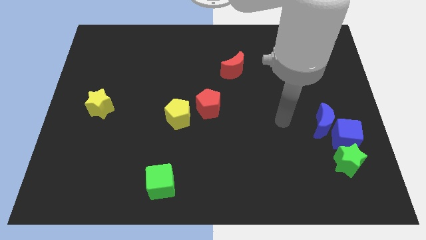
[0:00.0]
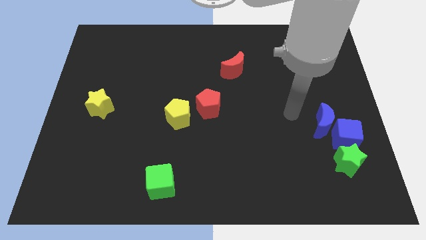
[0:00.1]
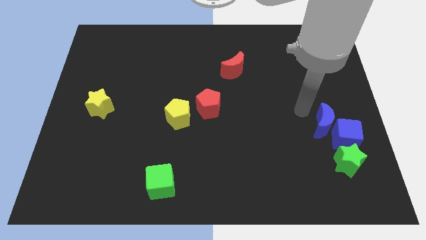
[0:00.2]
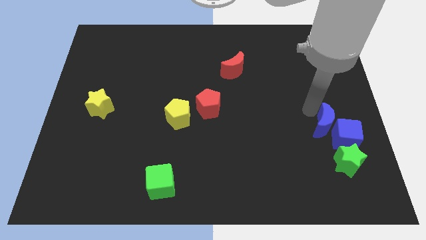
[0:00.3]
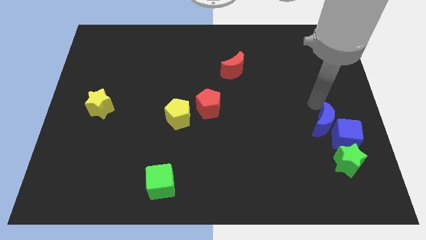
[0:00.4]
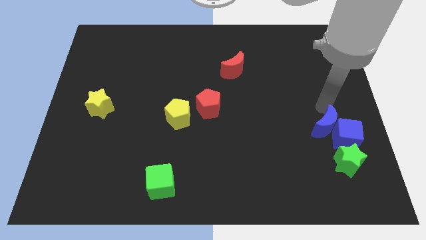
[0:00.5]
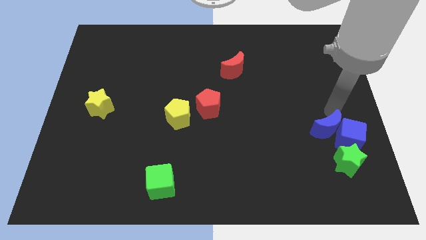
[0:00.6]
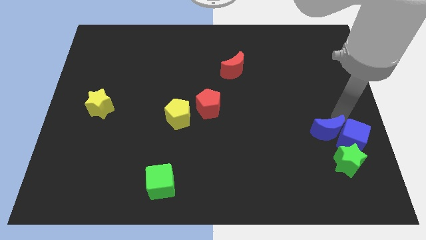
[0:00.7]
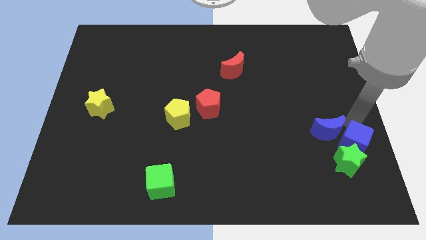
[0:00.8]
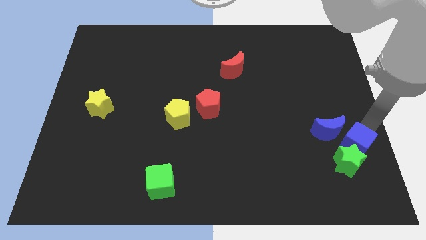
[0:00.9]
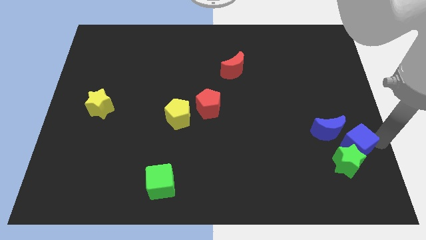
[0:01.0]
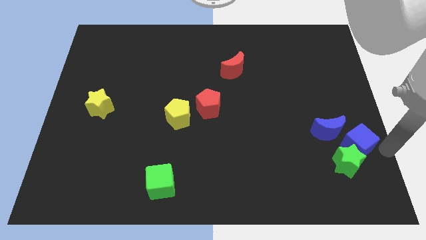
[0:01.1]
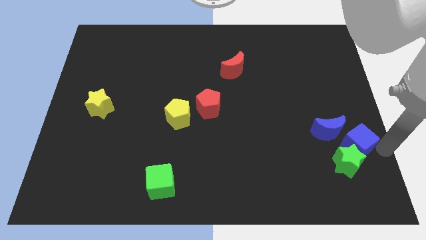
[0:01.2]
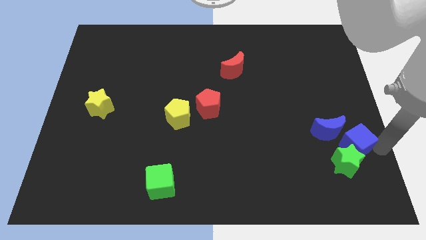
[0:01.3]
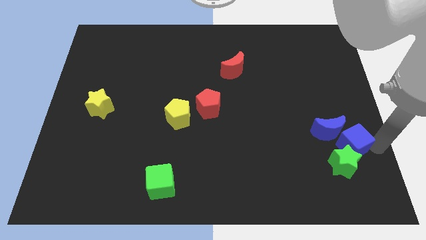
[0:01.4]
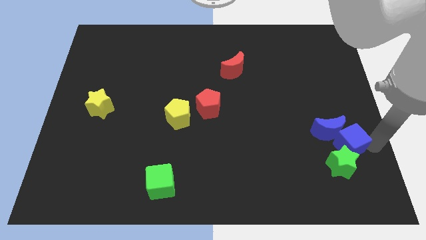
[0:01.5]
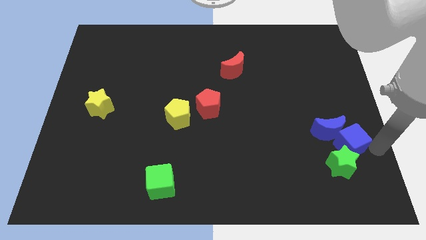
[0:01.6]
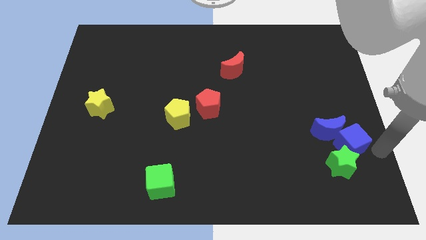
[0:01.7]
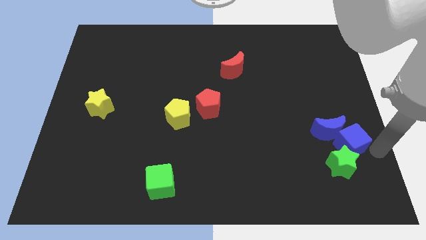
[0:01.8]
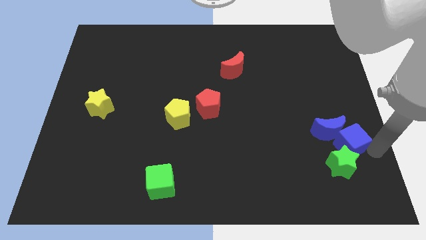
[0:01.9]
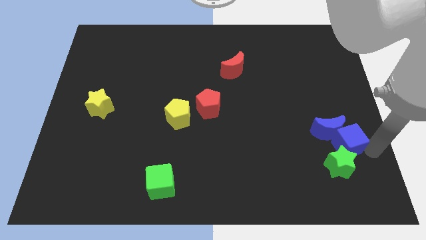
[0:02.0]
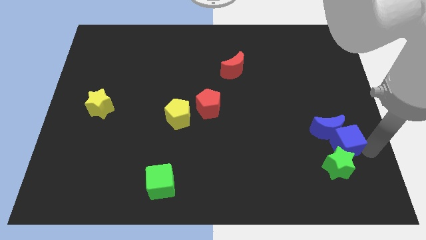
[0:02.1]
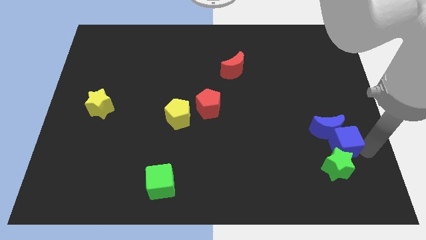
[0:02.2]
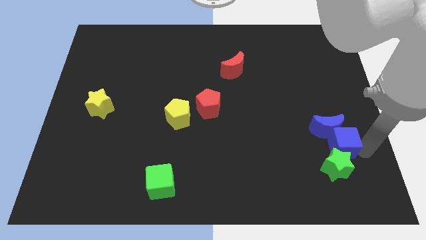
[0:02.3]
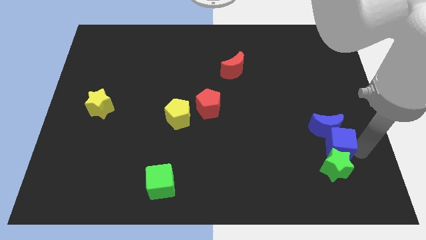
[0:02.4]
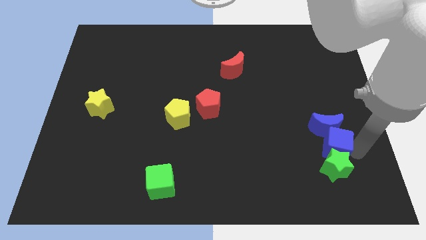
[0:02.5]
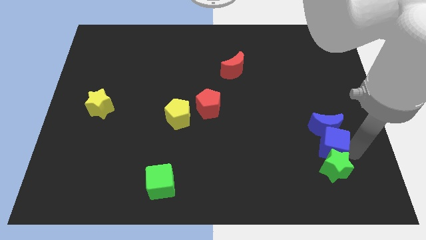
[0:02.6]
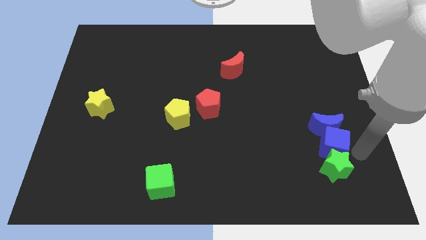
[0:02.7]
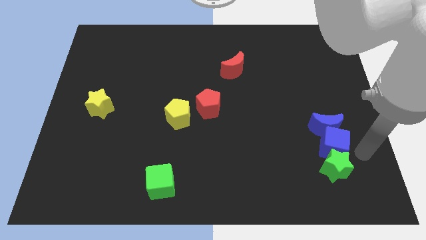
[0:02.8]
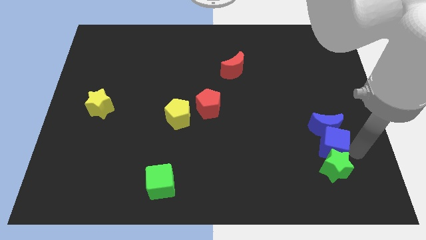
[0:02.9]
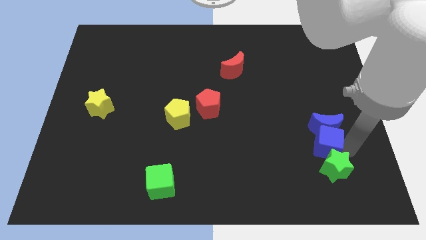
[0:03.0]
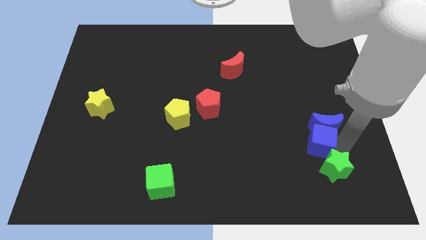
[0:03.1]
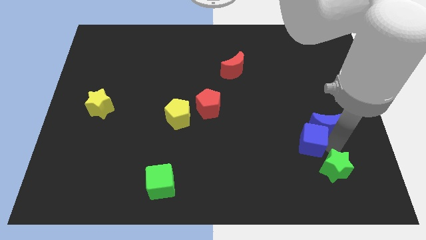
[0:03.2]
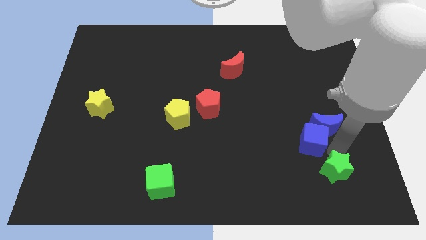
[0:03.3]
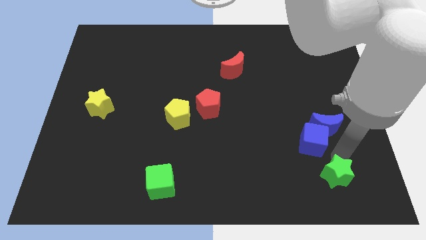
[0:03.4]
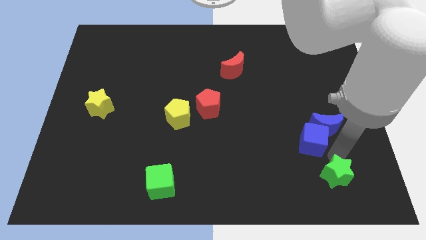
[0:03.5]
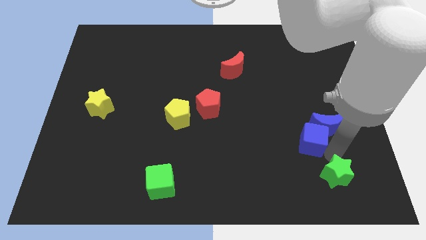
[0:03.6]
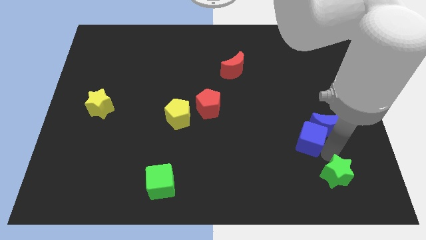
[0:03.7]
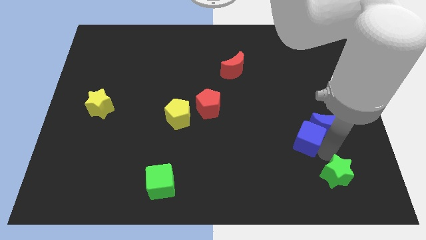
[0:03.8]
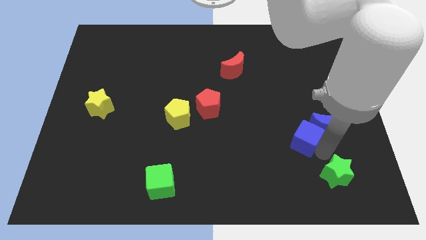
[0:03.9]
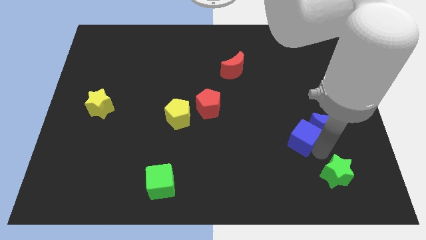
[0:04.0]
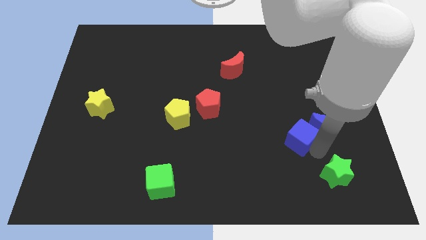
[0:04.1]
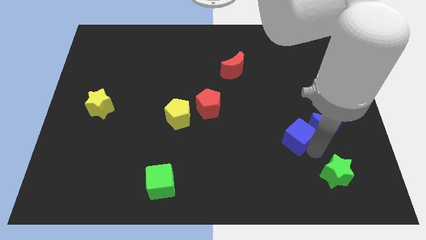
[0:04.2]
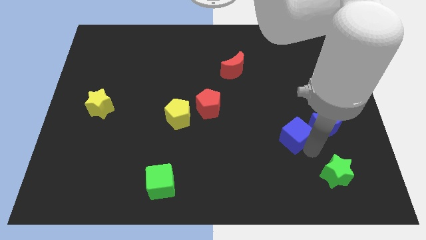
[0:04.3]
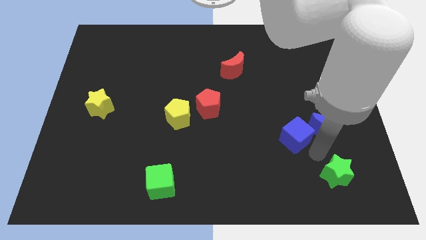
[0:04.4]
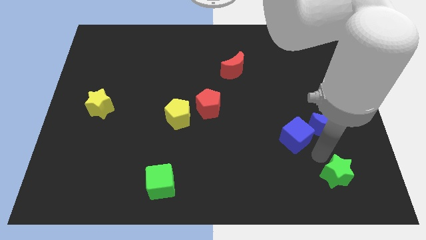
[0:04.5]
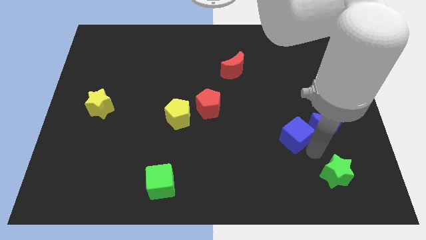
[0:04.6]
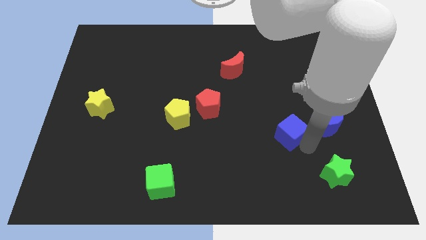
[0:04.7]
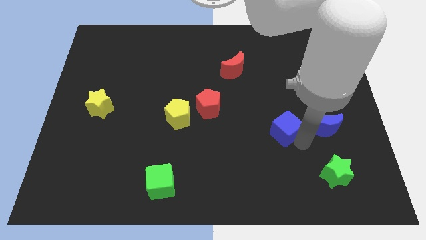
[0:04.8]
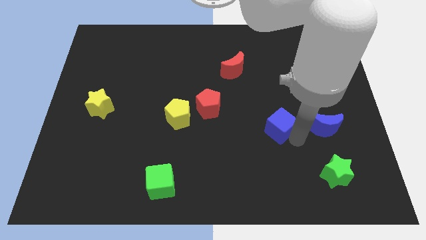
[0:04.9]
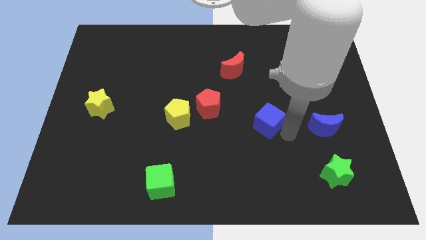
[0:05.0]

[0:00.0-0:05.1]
push the blue cube to the right side of the red pentagon

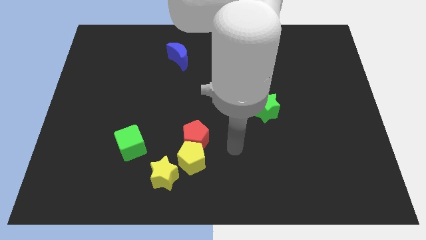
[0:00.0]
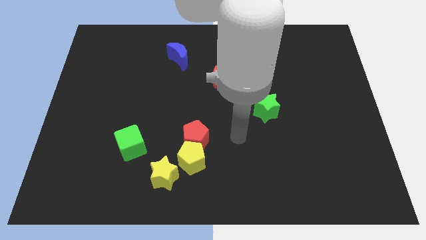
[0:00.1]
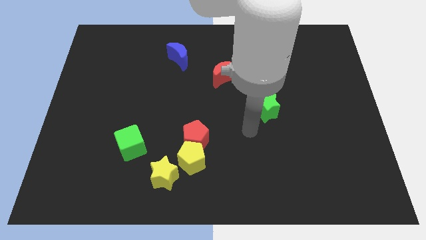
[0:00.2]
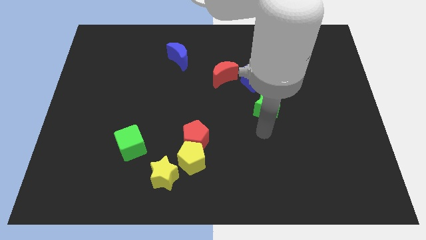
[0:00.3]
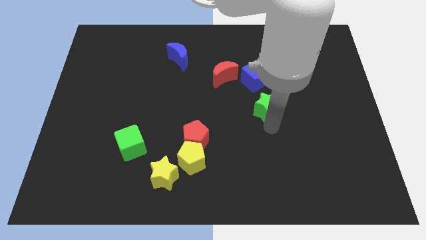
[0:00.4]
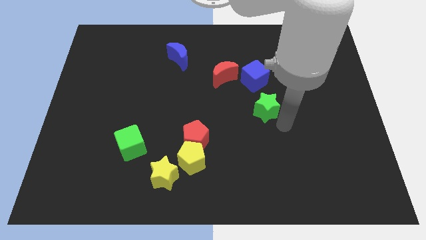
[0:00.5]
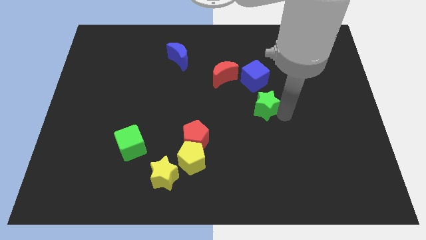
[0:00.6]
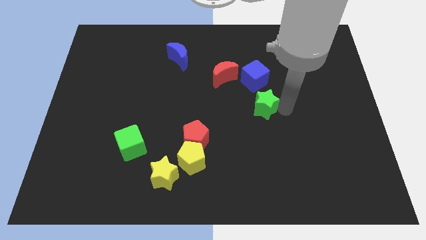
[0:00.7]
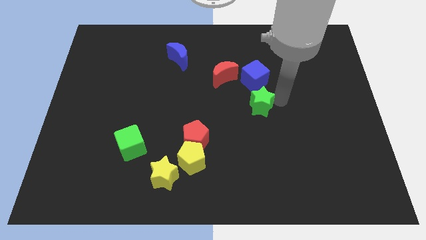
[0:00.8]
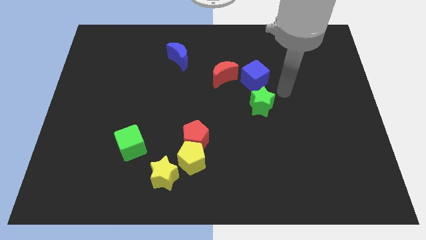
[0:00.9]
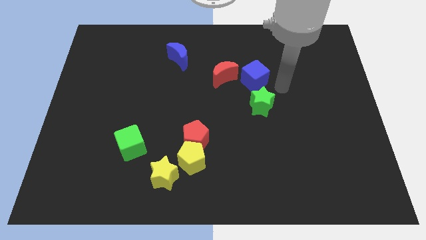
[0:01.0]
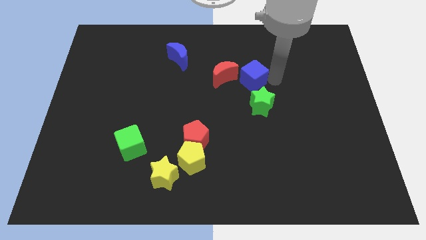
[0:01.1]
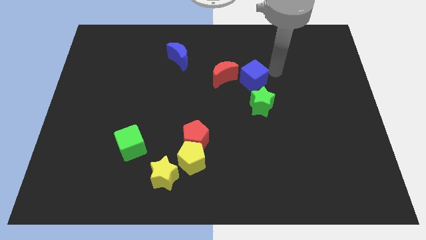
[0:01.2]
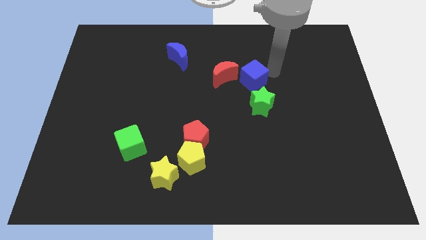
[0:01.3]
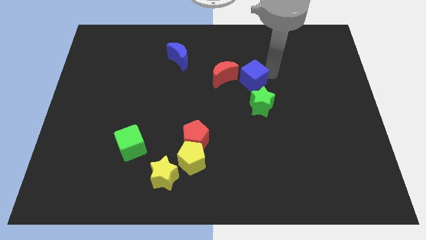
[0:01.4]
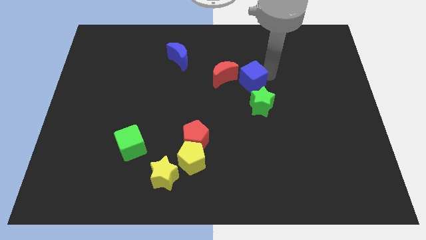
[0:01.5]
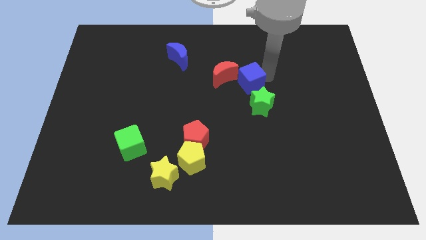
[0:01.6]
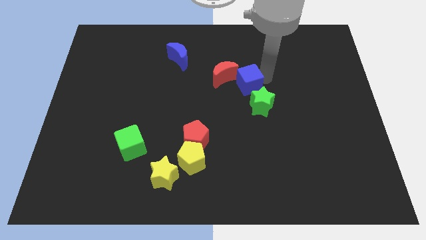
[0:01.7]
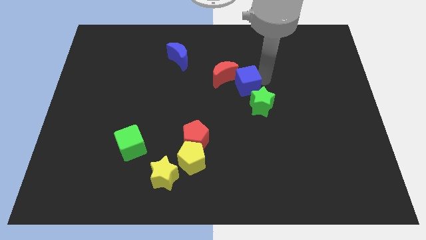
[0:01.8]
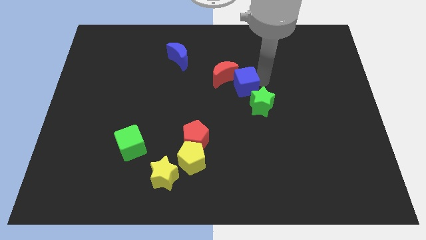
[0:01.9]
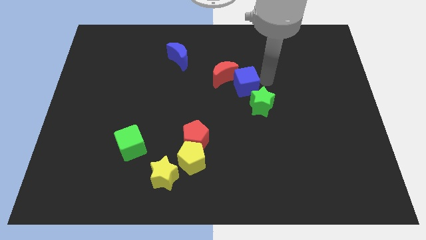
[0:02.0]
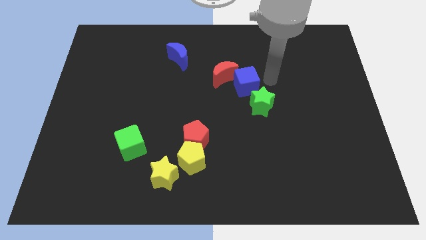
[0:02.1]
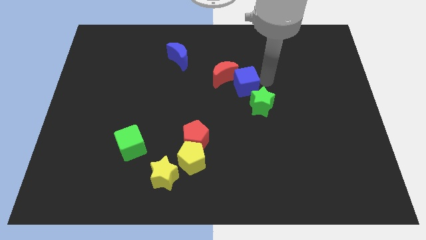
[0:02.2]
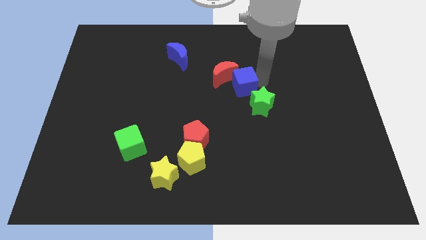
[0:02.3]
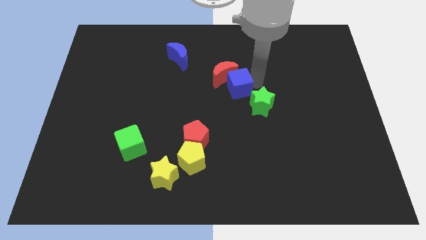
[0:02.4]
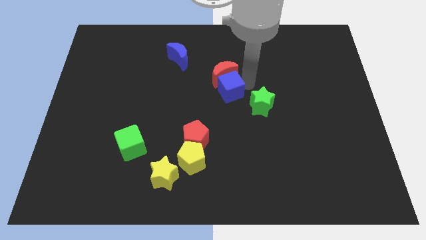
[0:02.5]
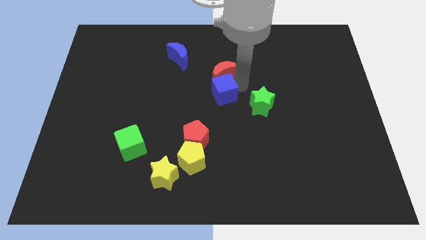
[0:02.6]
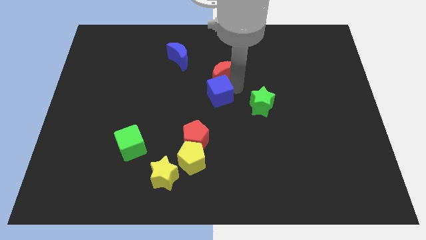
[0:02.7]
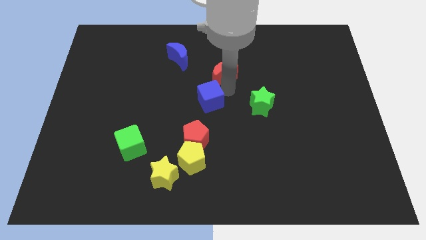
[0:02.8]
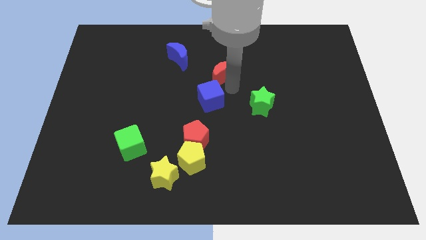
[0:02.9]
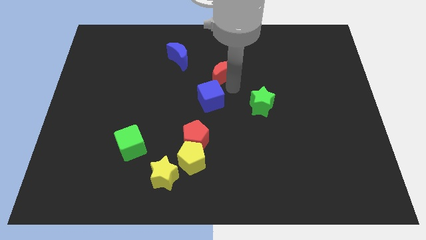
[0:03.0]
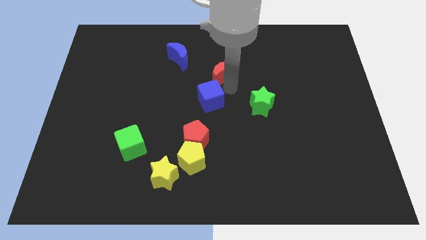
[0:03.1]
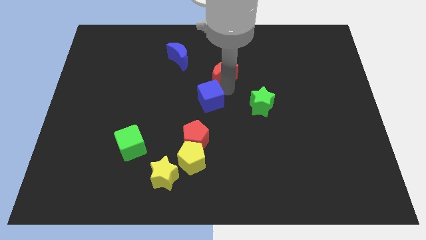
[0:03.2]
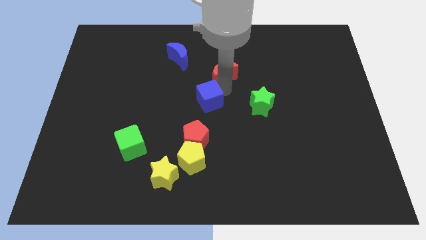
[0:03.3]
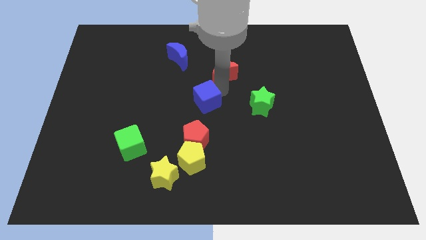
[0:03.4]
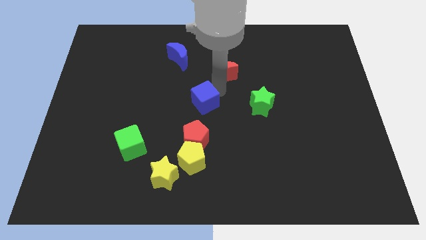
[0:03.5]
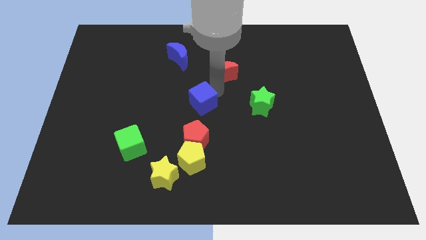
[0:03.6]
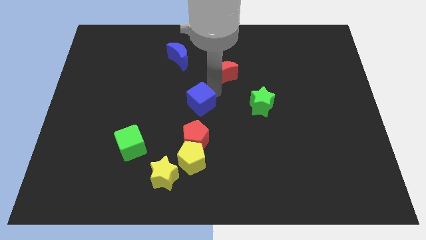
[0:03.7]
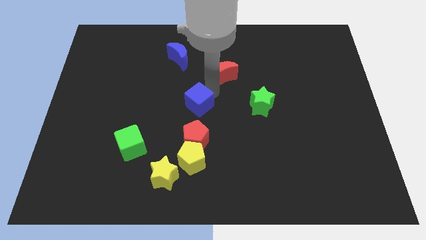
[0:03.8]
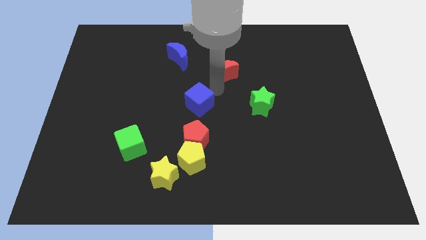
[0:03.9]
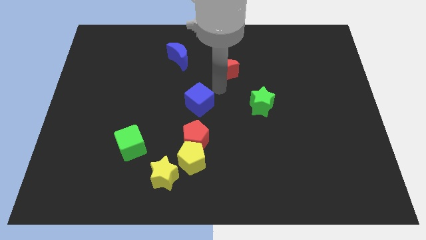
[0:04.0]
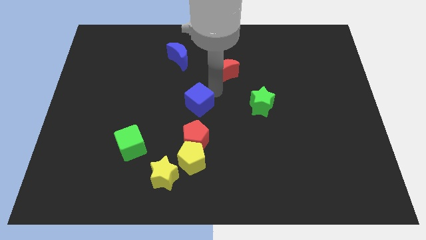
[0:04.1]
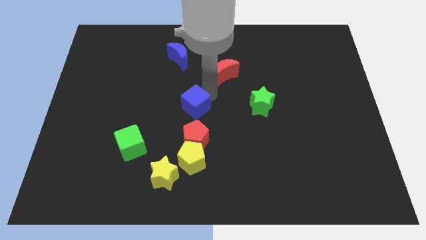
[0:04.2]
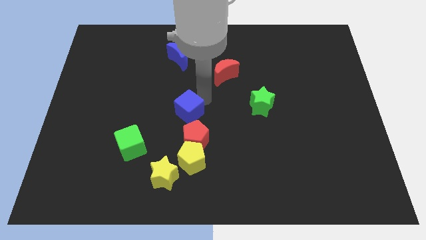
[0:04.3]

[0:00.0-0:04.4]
put the blue cube to the top left side of the red pentagon
